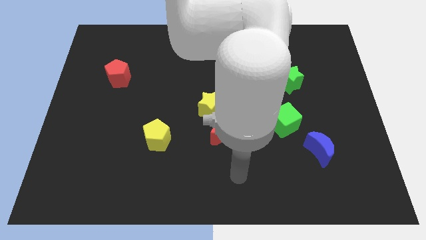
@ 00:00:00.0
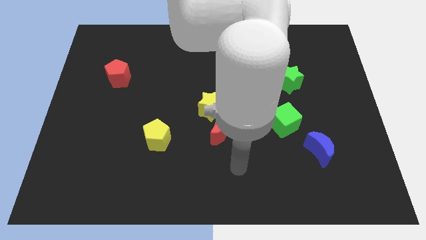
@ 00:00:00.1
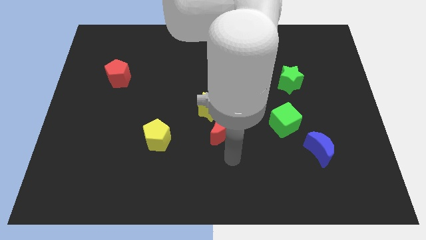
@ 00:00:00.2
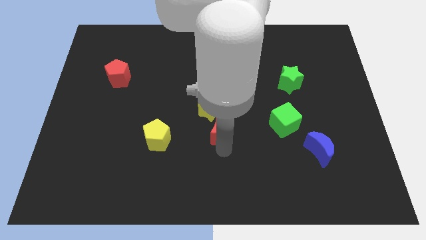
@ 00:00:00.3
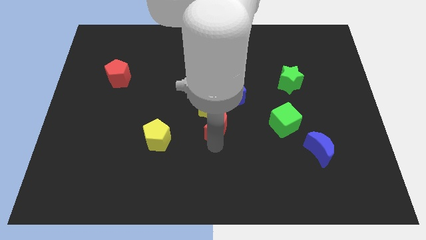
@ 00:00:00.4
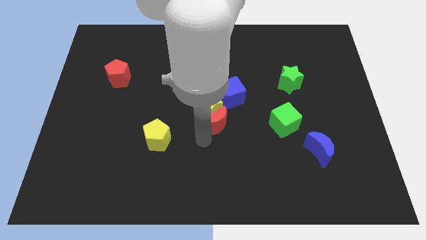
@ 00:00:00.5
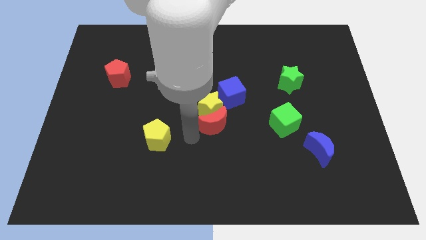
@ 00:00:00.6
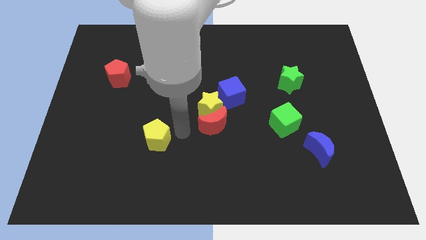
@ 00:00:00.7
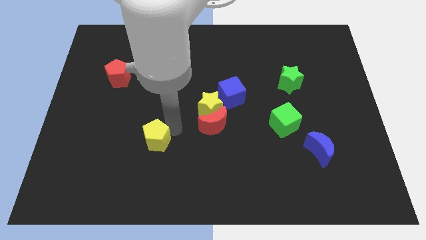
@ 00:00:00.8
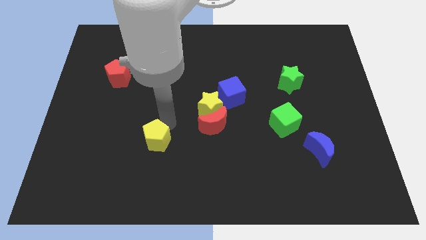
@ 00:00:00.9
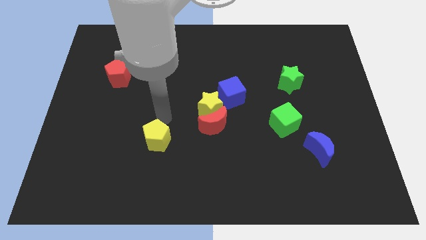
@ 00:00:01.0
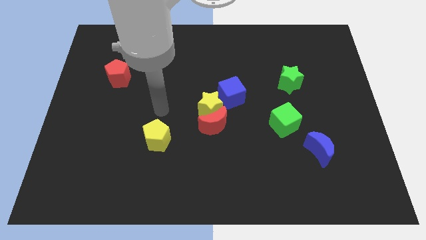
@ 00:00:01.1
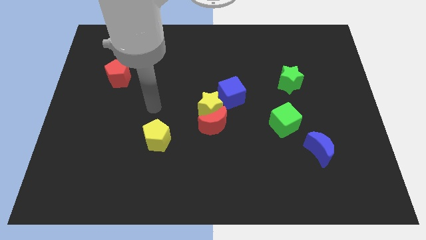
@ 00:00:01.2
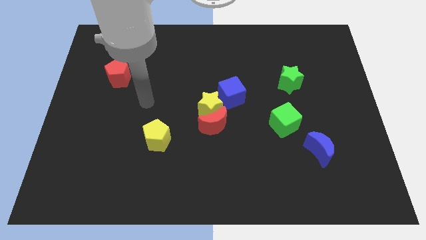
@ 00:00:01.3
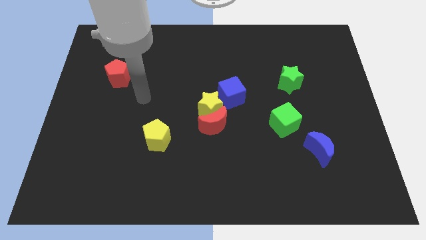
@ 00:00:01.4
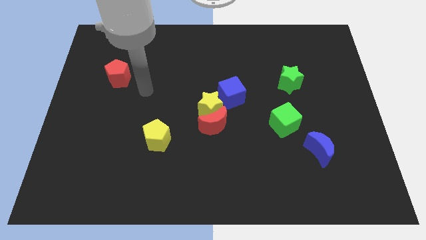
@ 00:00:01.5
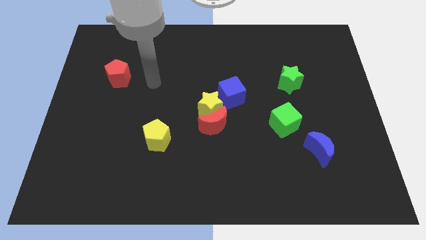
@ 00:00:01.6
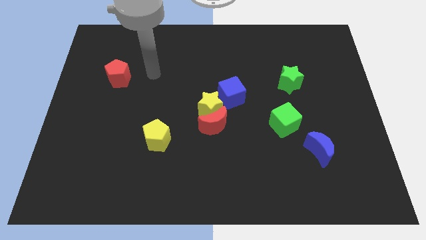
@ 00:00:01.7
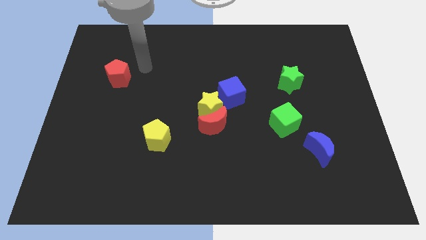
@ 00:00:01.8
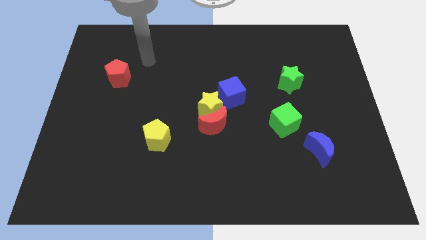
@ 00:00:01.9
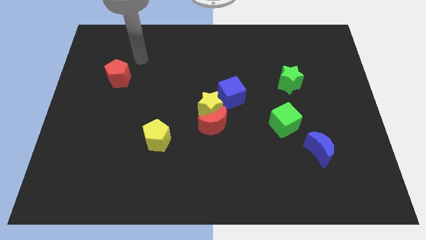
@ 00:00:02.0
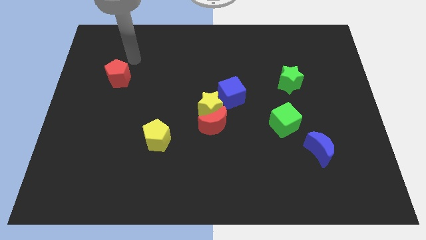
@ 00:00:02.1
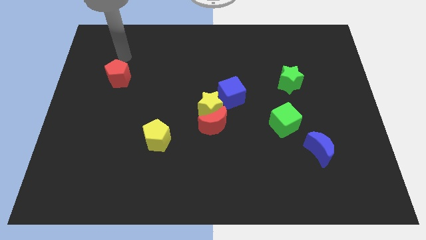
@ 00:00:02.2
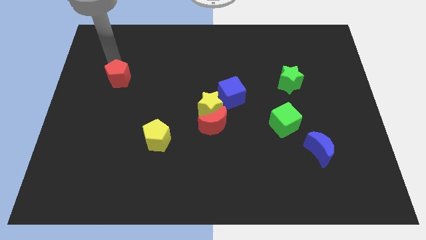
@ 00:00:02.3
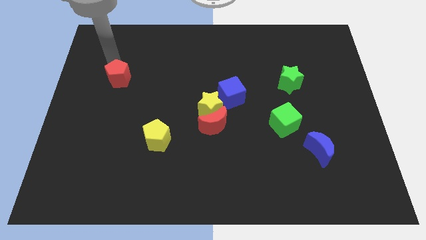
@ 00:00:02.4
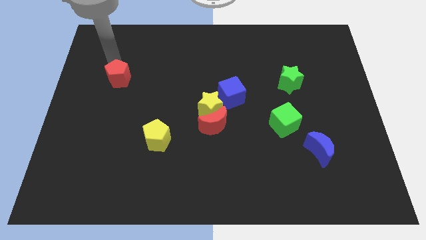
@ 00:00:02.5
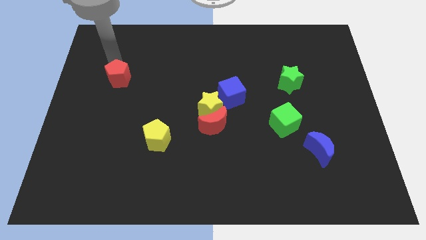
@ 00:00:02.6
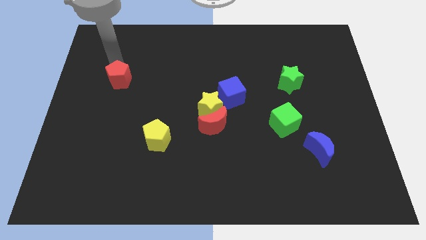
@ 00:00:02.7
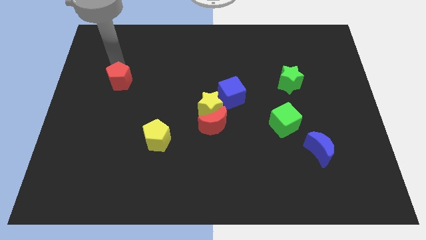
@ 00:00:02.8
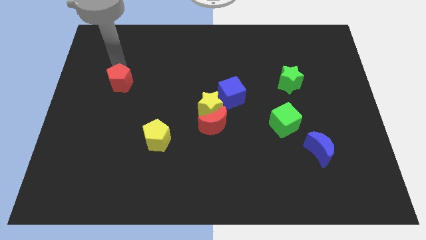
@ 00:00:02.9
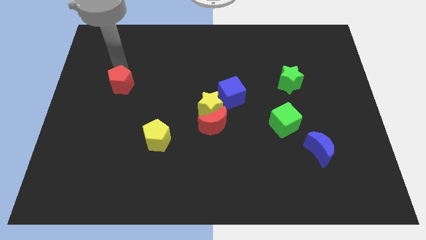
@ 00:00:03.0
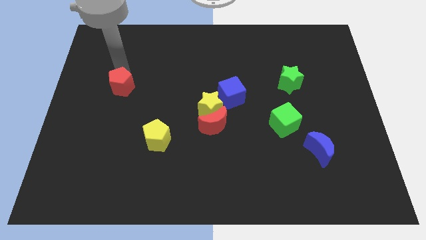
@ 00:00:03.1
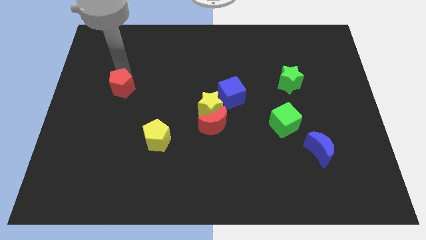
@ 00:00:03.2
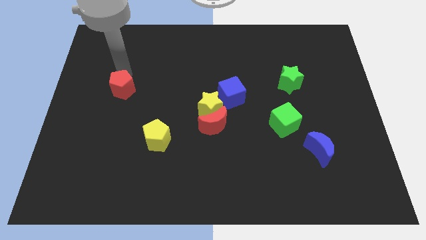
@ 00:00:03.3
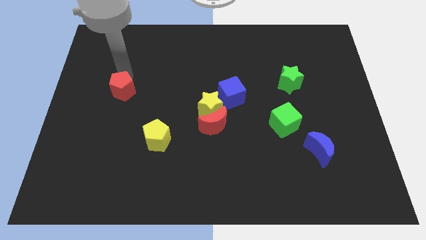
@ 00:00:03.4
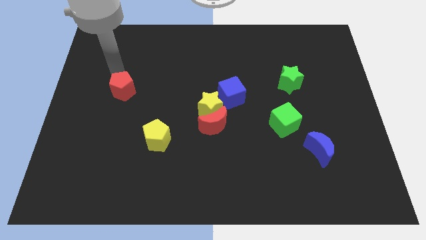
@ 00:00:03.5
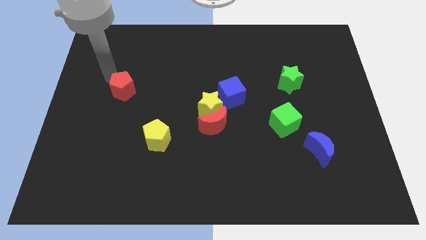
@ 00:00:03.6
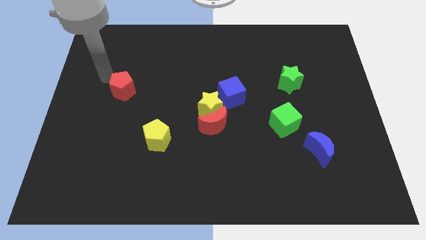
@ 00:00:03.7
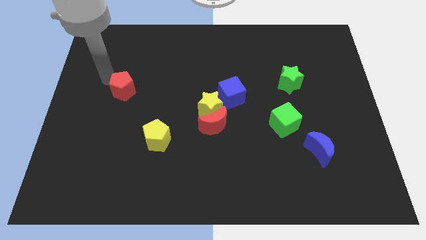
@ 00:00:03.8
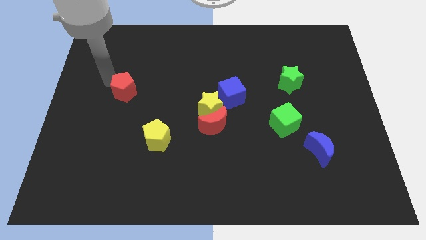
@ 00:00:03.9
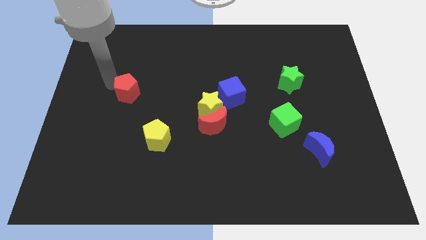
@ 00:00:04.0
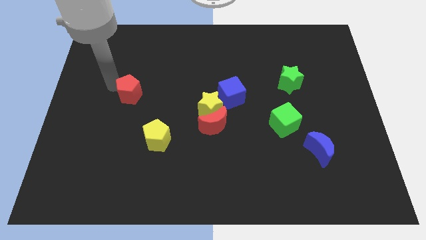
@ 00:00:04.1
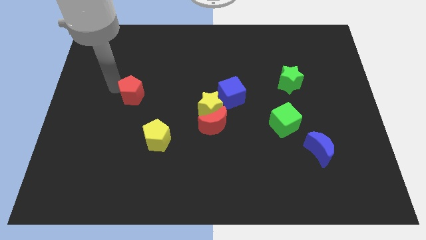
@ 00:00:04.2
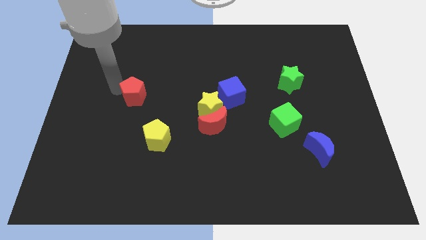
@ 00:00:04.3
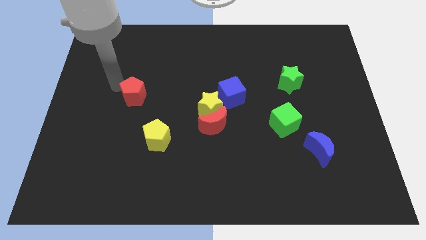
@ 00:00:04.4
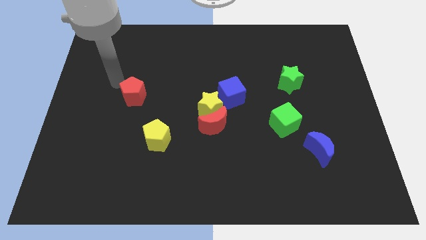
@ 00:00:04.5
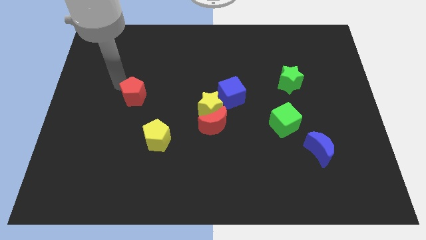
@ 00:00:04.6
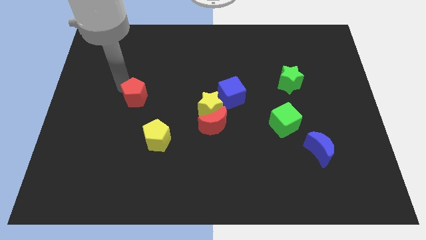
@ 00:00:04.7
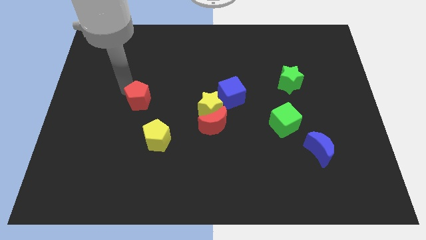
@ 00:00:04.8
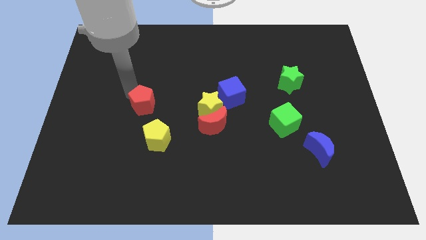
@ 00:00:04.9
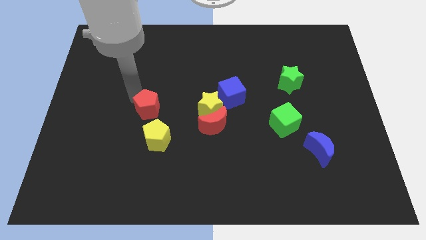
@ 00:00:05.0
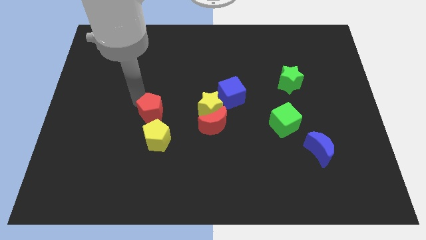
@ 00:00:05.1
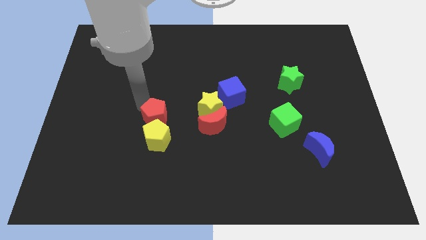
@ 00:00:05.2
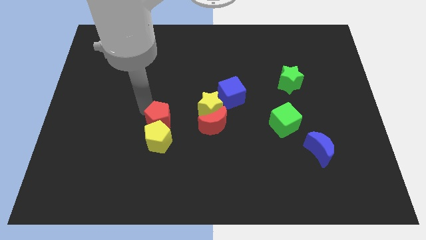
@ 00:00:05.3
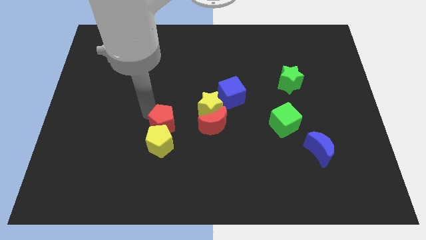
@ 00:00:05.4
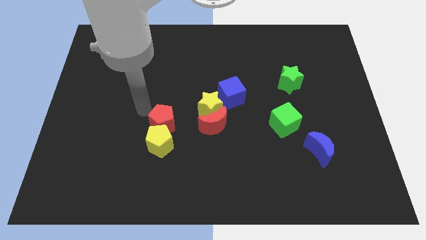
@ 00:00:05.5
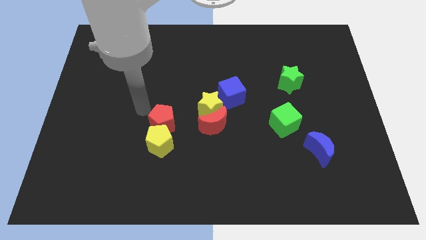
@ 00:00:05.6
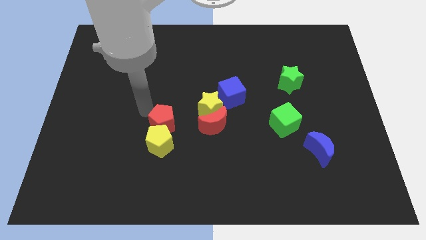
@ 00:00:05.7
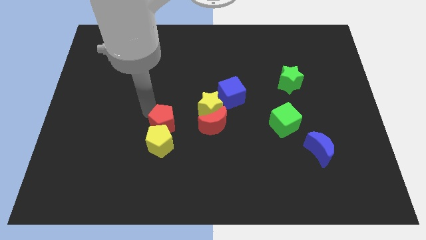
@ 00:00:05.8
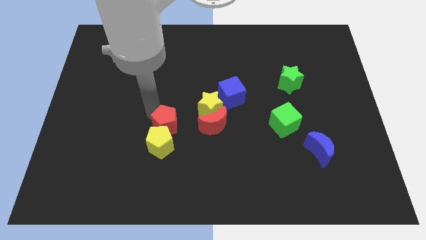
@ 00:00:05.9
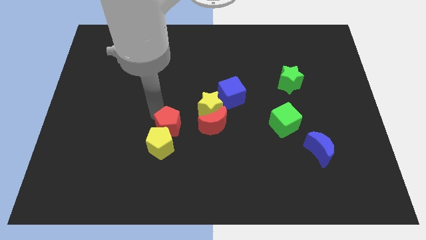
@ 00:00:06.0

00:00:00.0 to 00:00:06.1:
move the red pentagon downwards and right diagonally

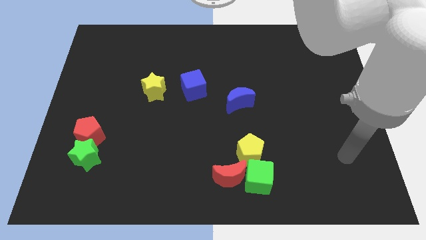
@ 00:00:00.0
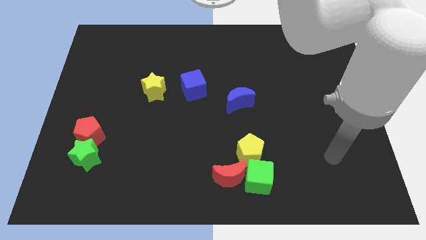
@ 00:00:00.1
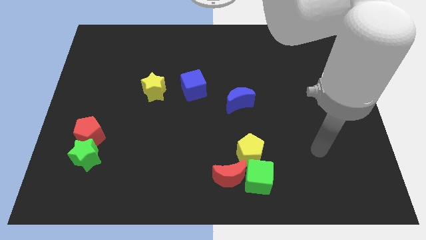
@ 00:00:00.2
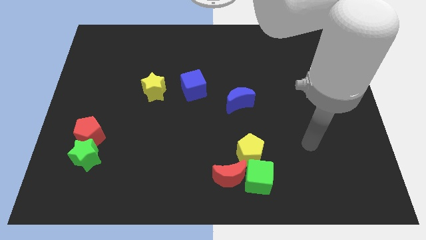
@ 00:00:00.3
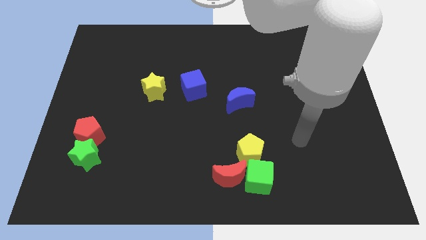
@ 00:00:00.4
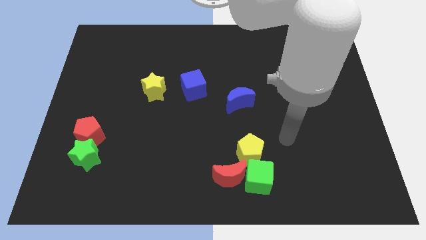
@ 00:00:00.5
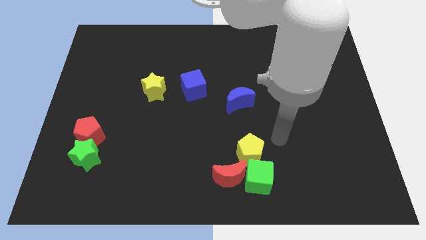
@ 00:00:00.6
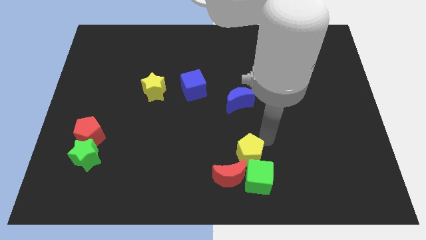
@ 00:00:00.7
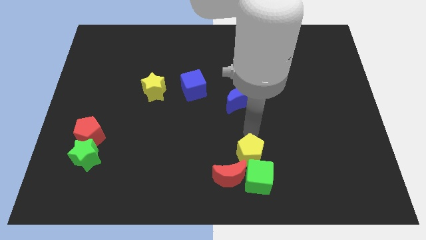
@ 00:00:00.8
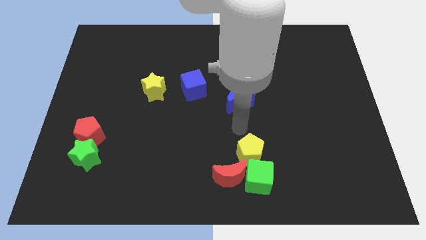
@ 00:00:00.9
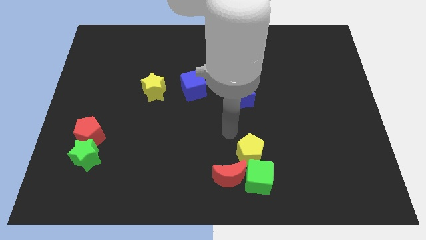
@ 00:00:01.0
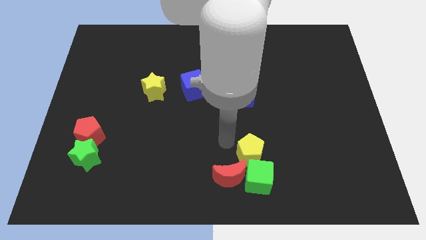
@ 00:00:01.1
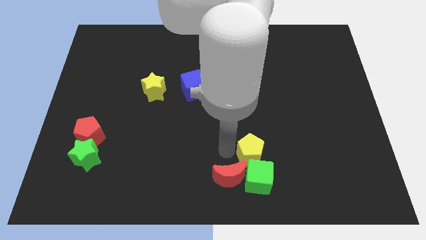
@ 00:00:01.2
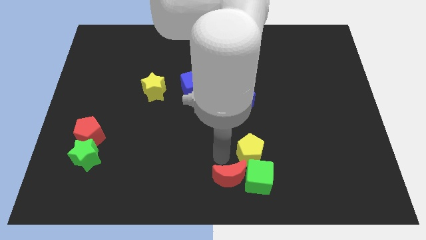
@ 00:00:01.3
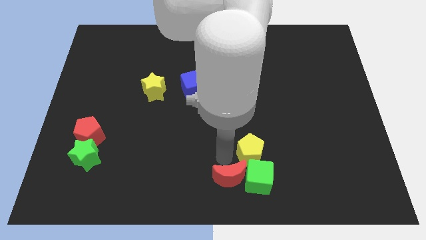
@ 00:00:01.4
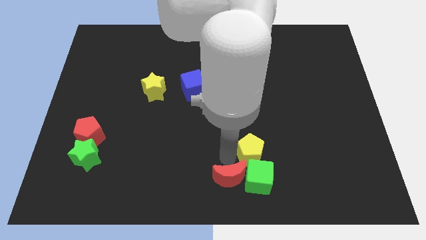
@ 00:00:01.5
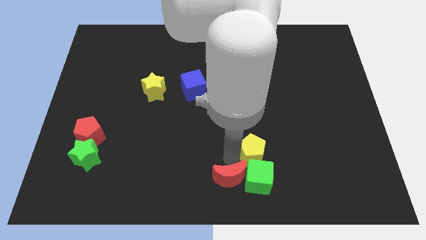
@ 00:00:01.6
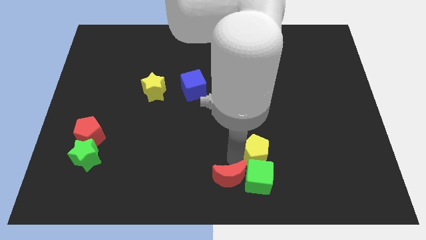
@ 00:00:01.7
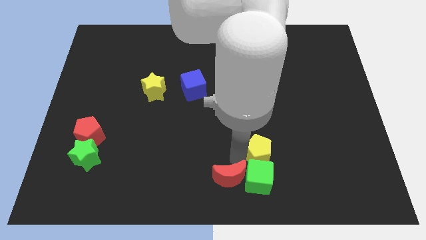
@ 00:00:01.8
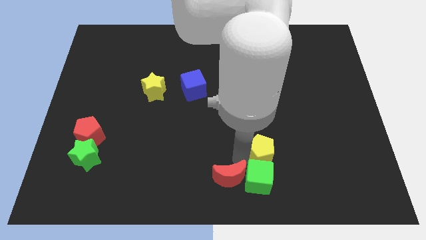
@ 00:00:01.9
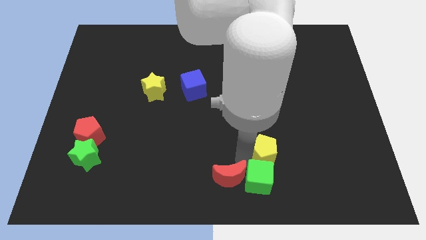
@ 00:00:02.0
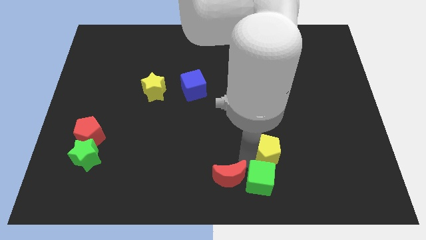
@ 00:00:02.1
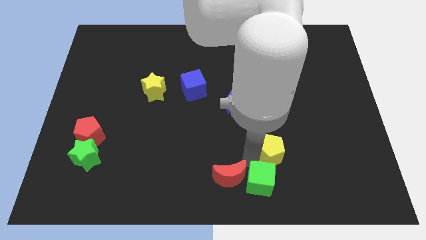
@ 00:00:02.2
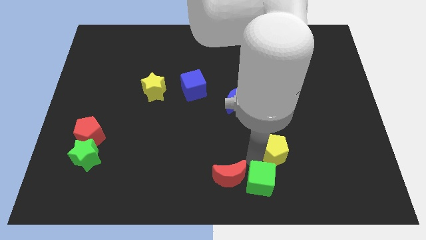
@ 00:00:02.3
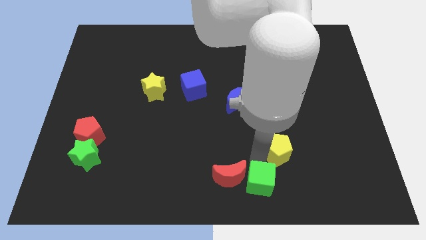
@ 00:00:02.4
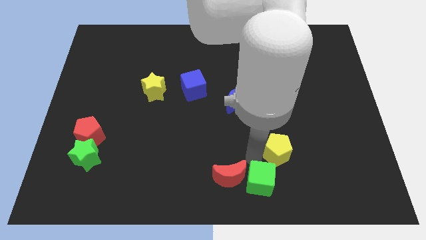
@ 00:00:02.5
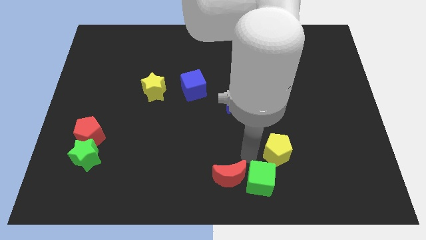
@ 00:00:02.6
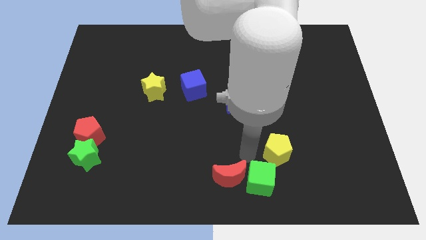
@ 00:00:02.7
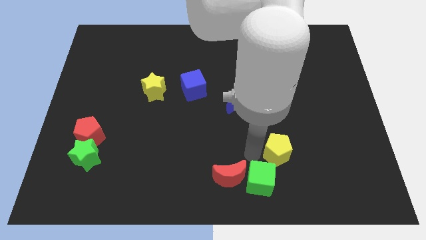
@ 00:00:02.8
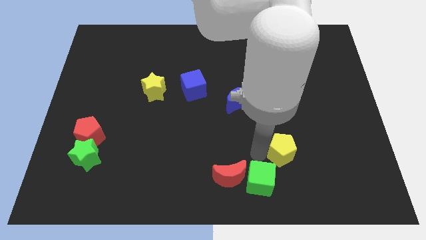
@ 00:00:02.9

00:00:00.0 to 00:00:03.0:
slightly move the yellow pentagon right
